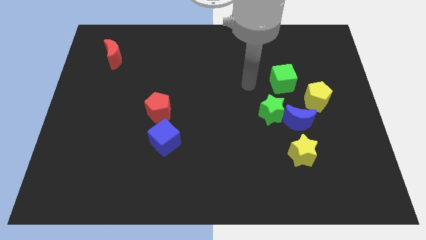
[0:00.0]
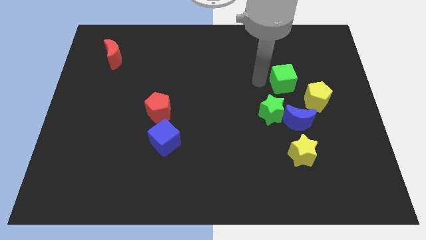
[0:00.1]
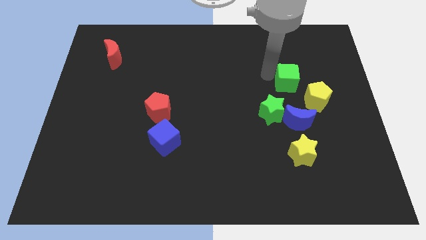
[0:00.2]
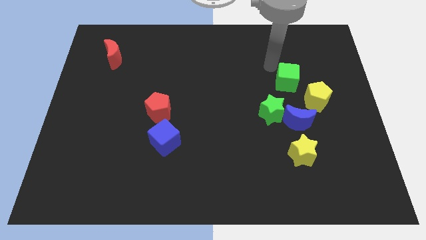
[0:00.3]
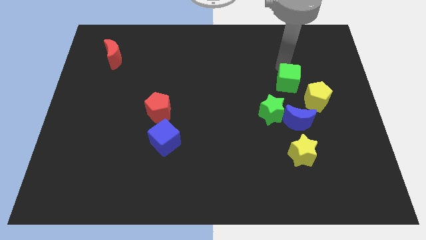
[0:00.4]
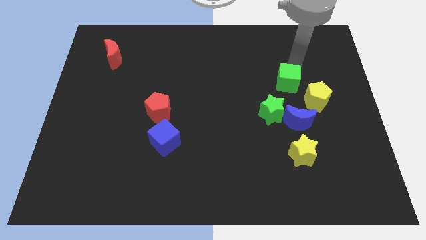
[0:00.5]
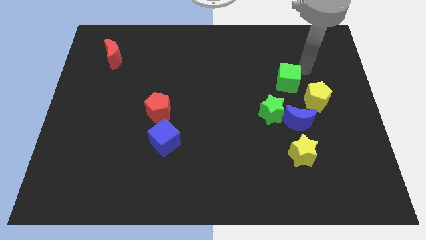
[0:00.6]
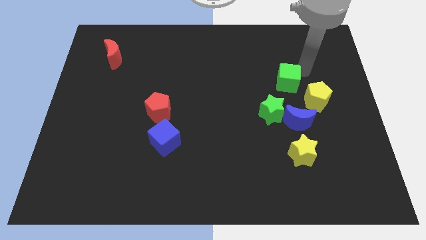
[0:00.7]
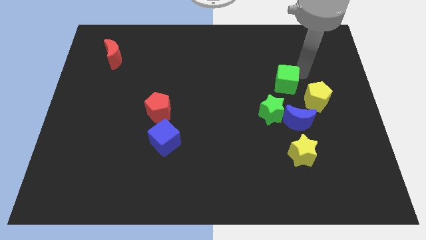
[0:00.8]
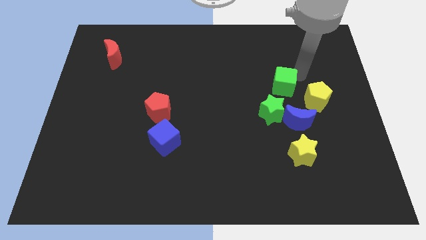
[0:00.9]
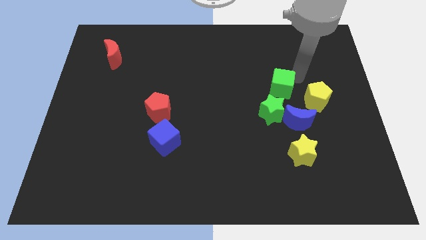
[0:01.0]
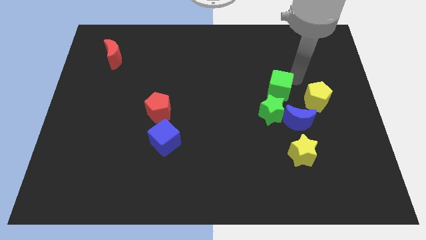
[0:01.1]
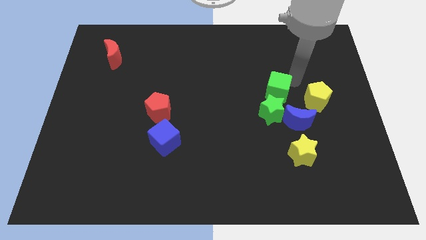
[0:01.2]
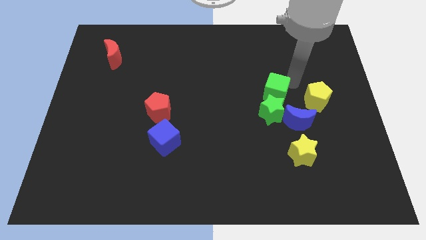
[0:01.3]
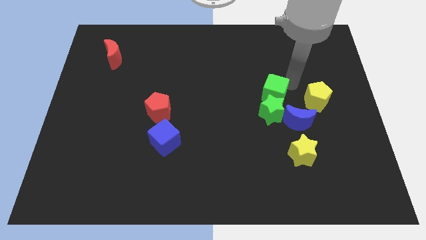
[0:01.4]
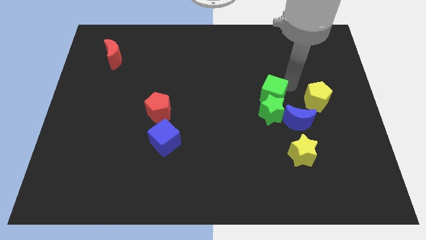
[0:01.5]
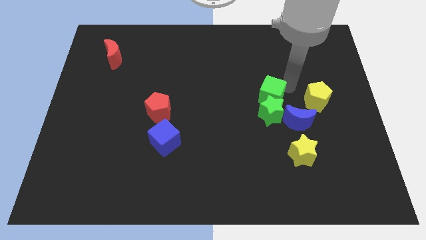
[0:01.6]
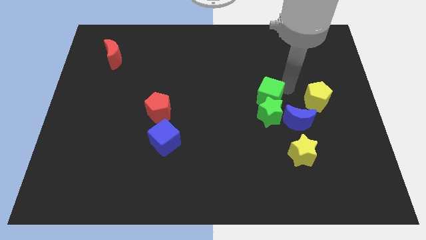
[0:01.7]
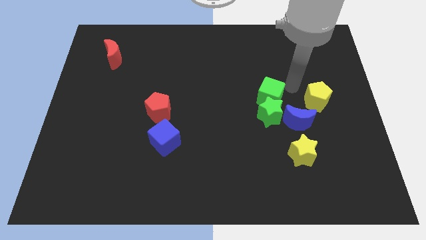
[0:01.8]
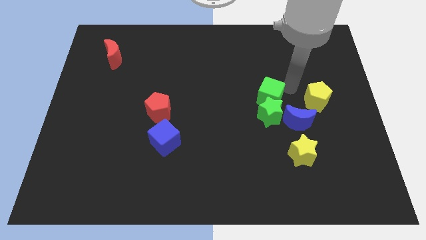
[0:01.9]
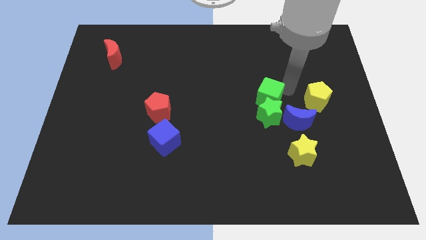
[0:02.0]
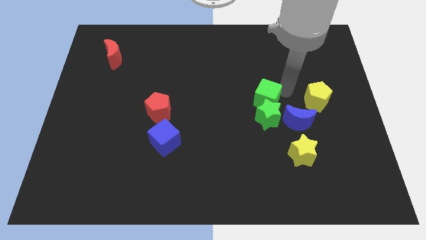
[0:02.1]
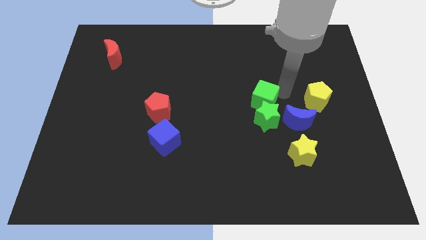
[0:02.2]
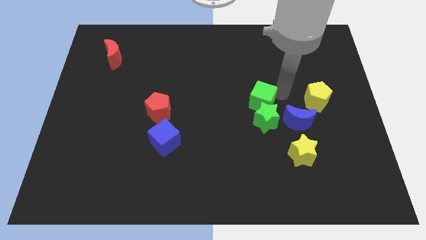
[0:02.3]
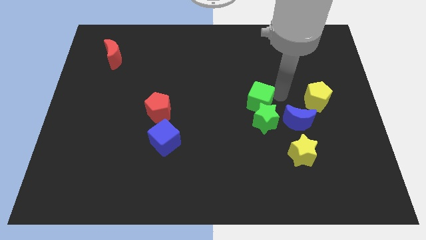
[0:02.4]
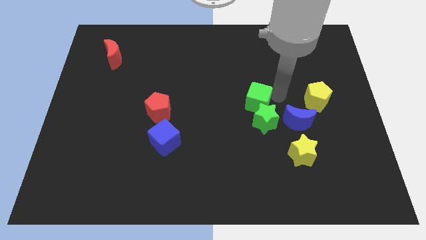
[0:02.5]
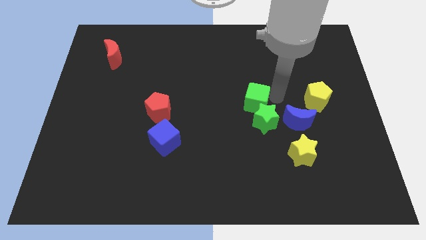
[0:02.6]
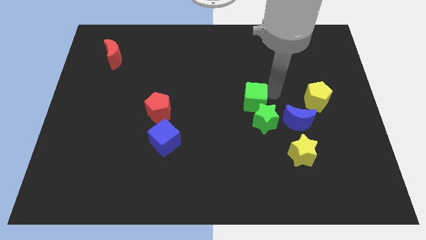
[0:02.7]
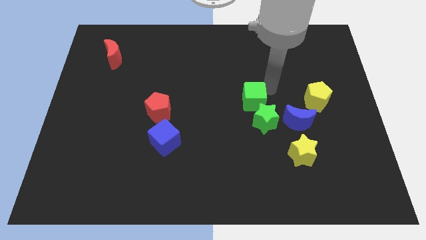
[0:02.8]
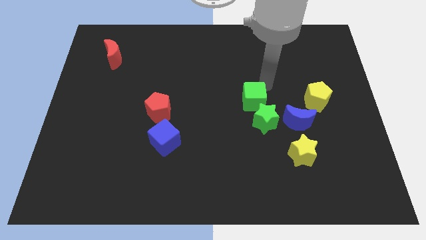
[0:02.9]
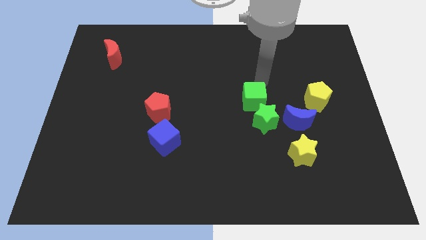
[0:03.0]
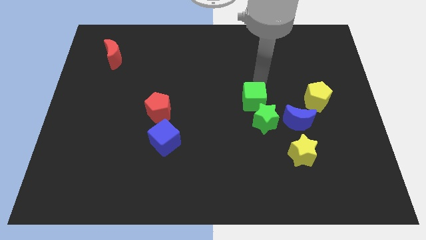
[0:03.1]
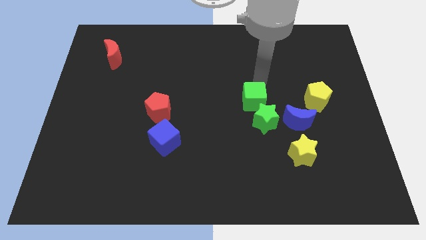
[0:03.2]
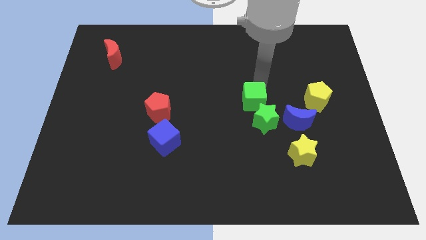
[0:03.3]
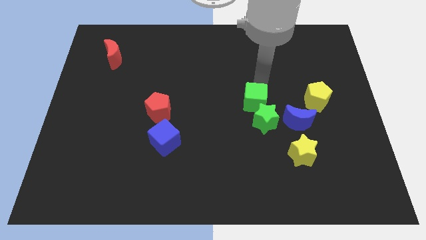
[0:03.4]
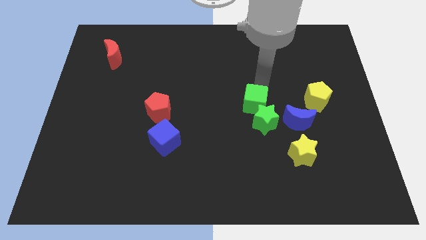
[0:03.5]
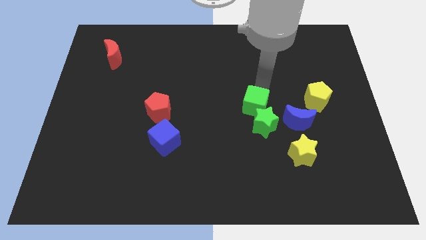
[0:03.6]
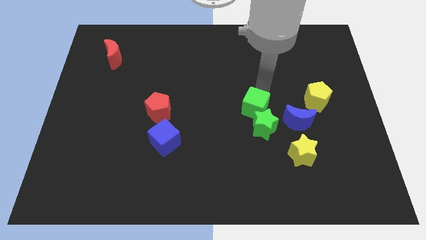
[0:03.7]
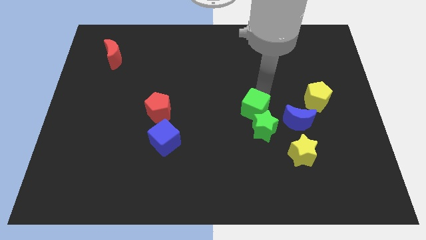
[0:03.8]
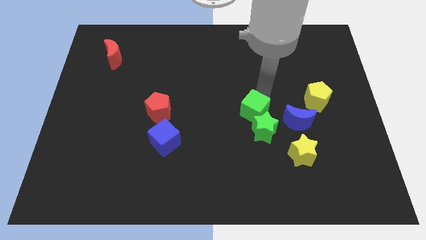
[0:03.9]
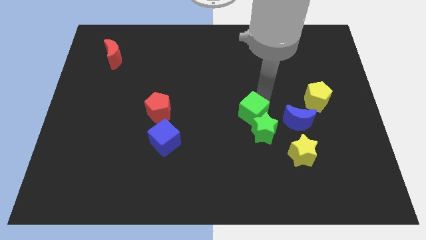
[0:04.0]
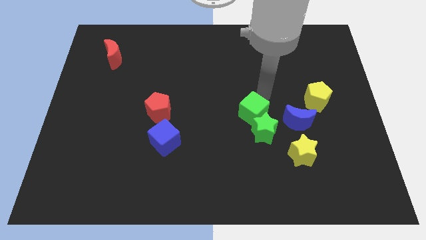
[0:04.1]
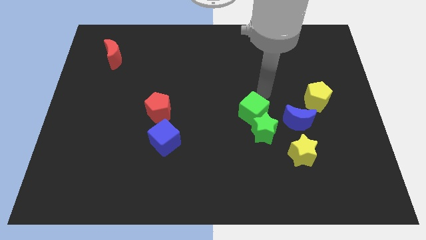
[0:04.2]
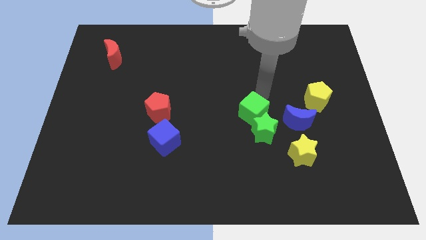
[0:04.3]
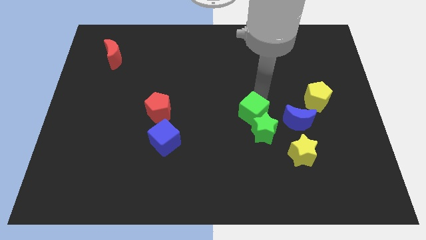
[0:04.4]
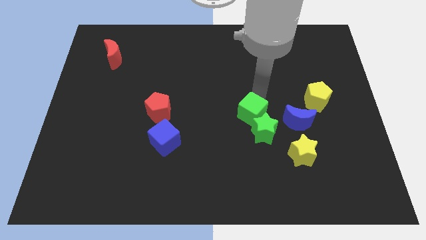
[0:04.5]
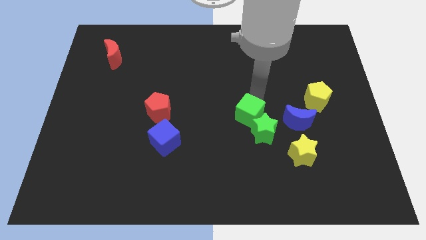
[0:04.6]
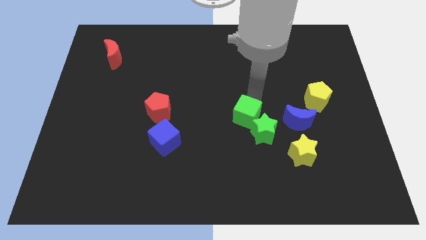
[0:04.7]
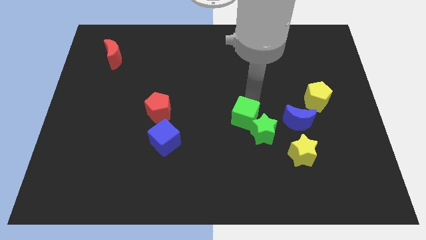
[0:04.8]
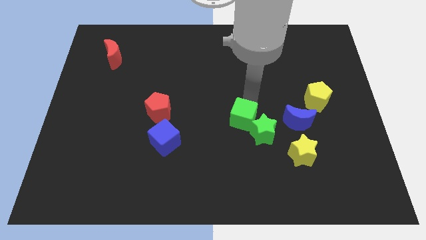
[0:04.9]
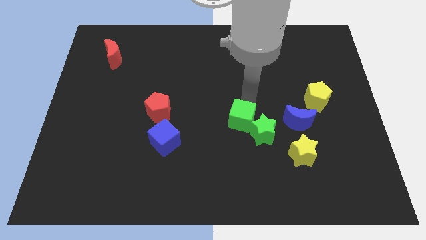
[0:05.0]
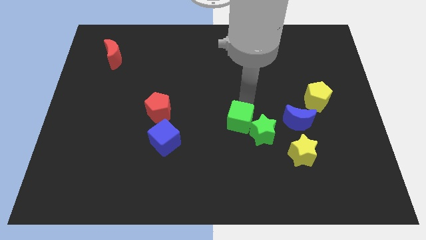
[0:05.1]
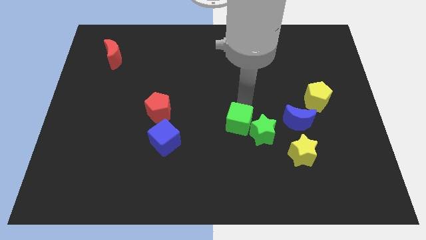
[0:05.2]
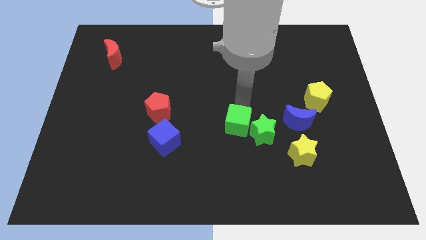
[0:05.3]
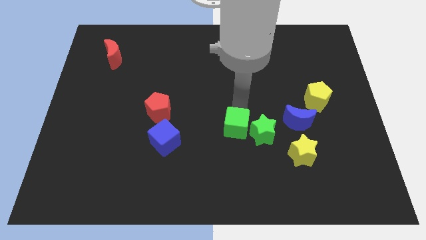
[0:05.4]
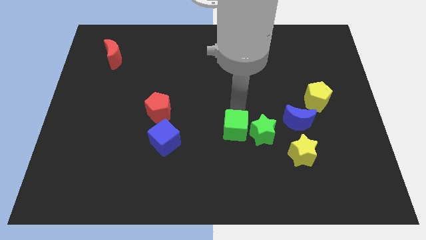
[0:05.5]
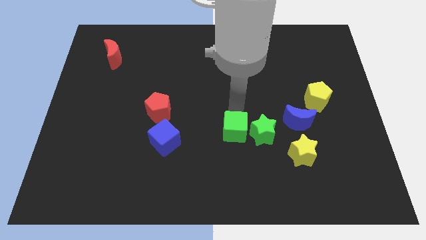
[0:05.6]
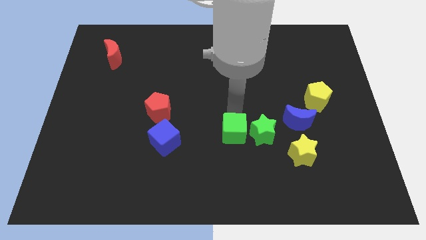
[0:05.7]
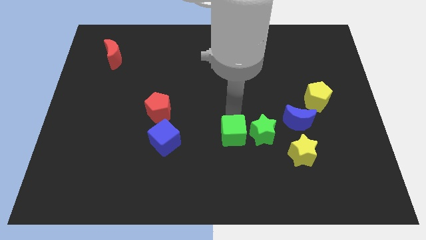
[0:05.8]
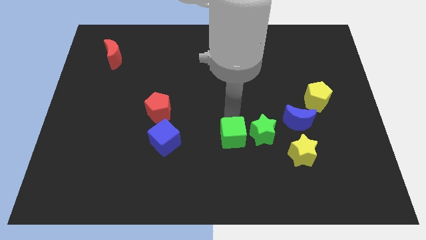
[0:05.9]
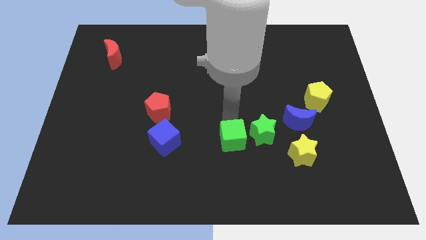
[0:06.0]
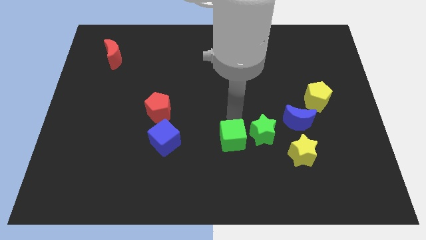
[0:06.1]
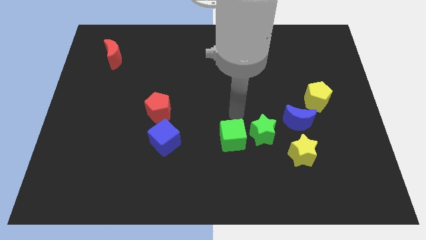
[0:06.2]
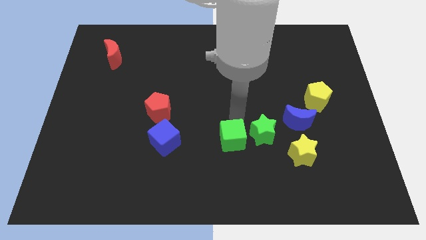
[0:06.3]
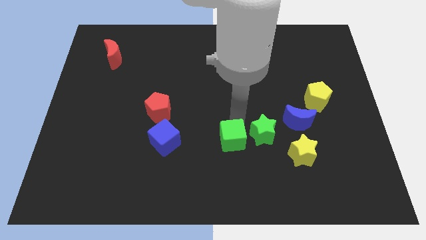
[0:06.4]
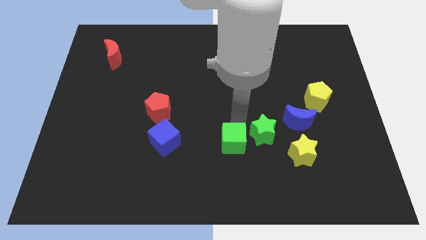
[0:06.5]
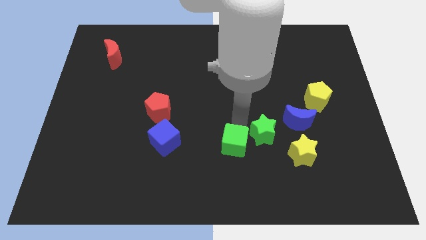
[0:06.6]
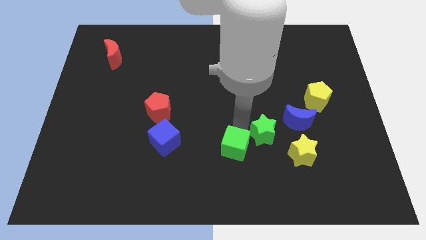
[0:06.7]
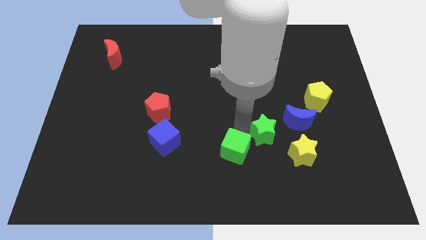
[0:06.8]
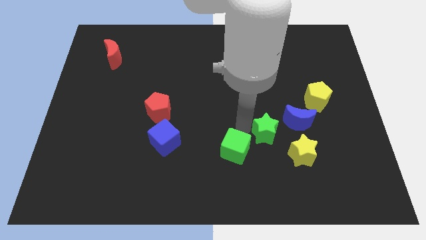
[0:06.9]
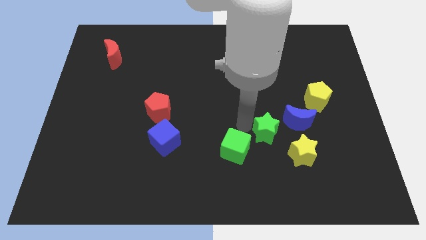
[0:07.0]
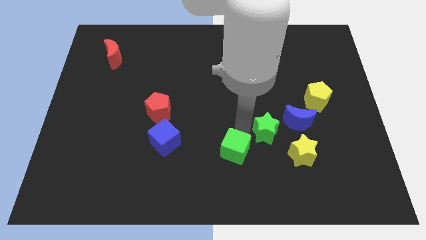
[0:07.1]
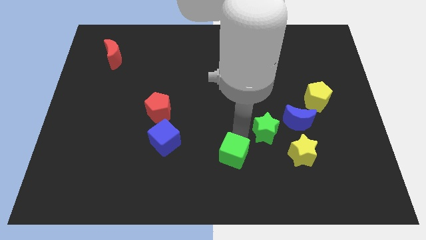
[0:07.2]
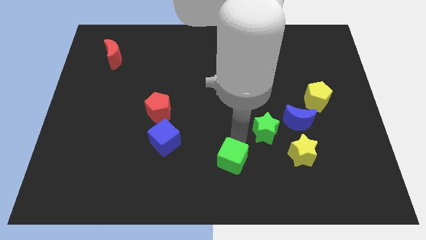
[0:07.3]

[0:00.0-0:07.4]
move the green cube to the bottom
